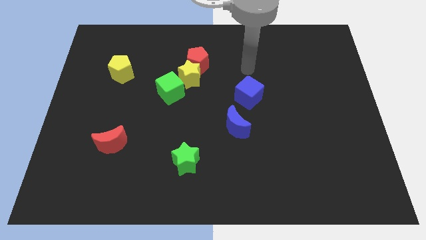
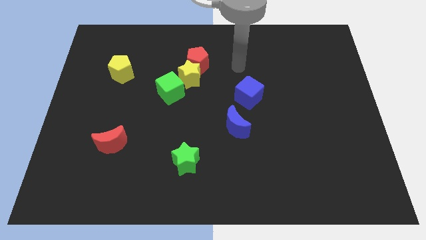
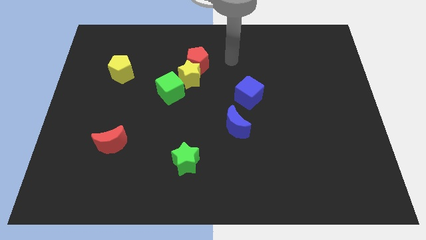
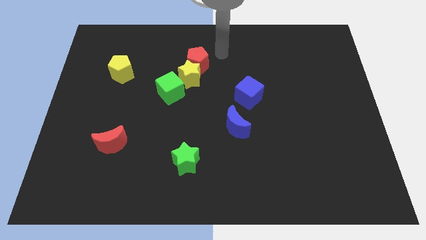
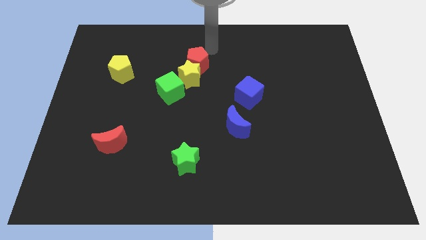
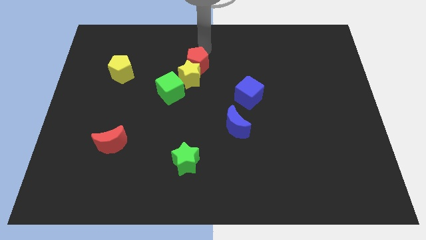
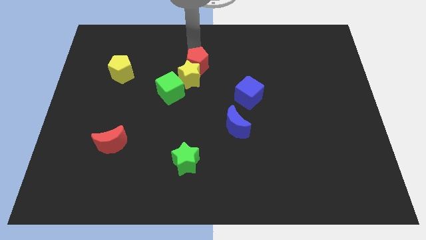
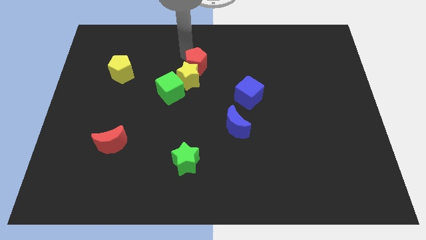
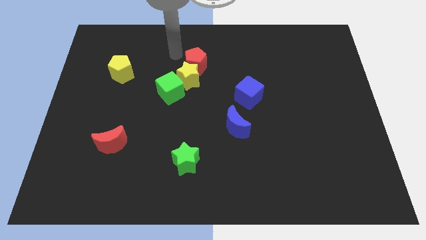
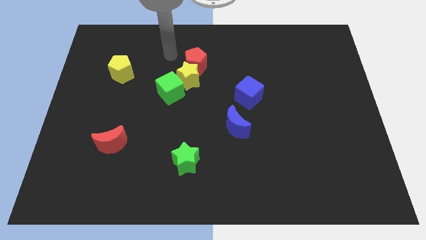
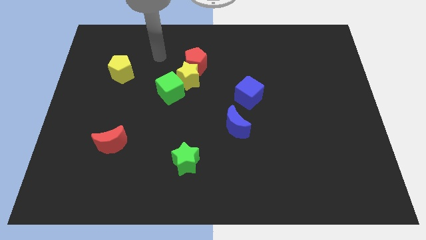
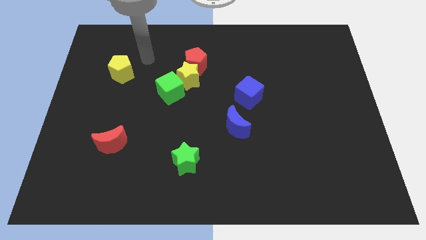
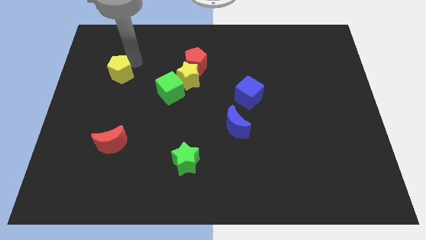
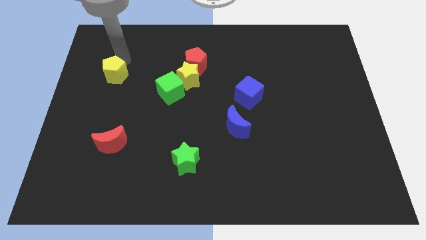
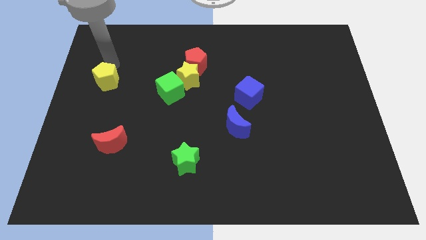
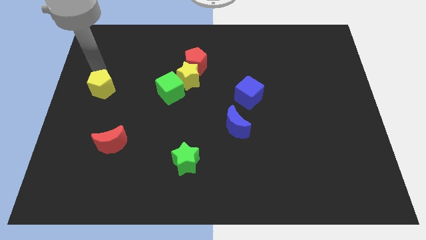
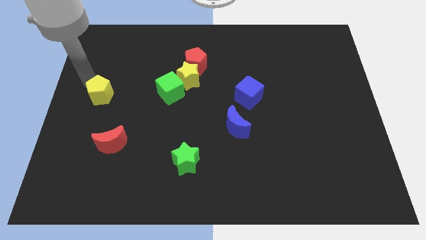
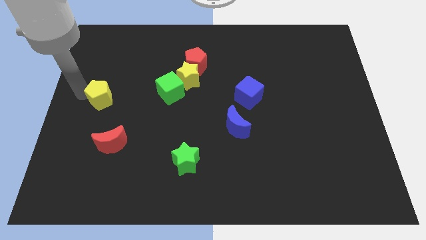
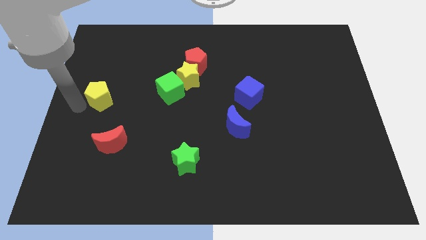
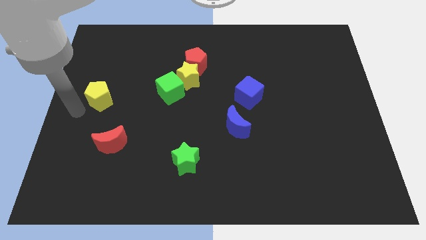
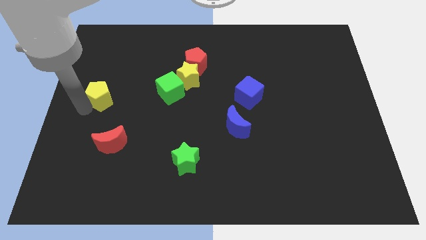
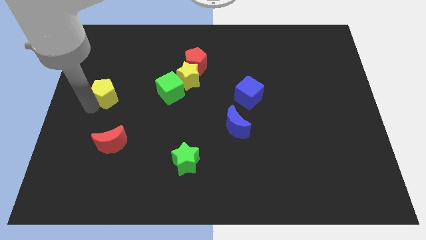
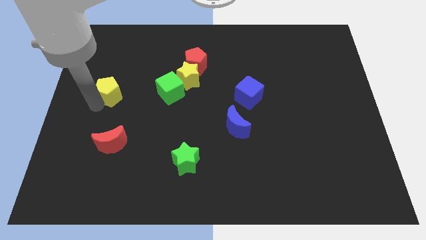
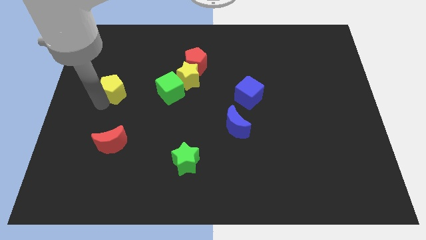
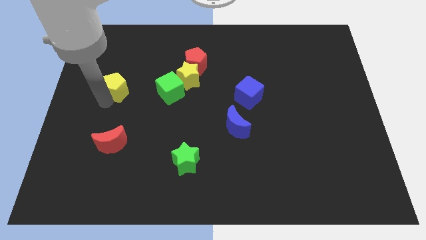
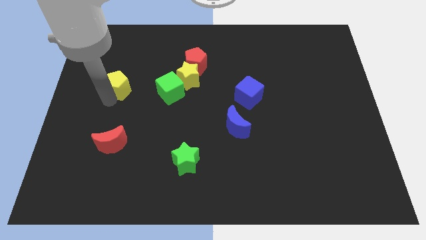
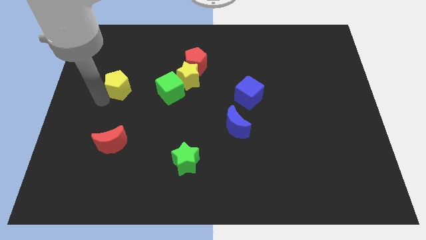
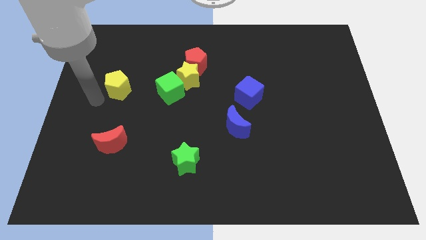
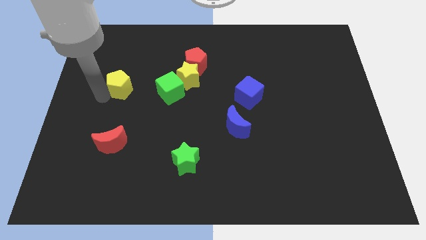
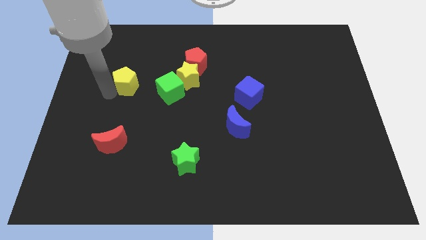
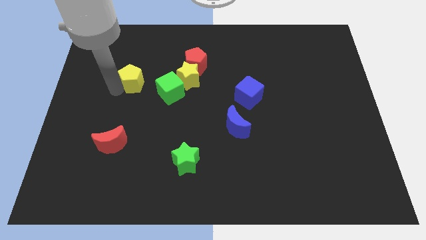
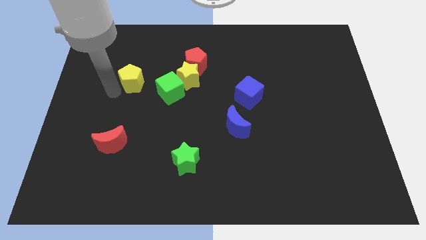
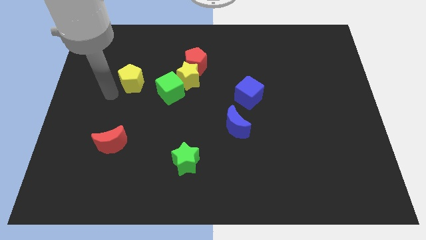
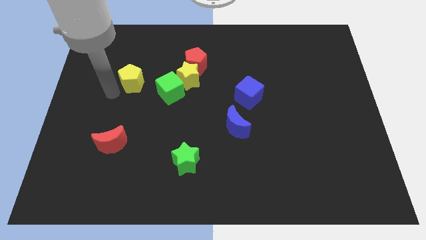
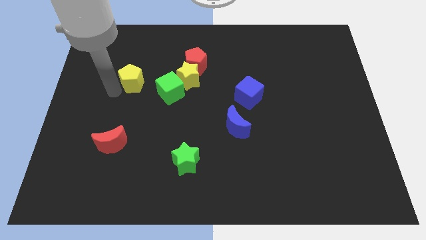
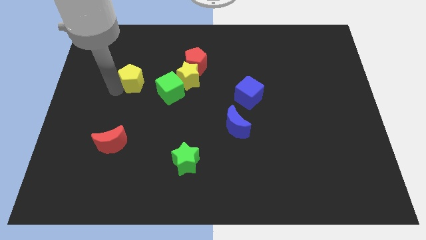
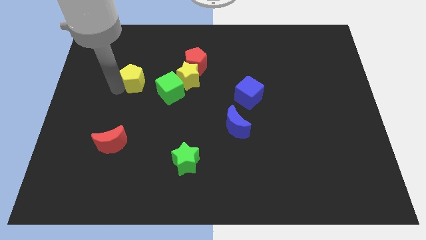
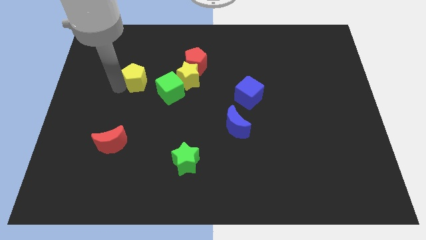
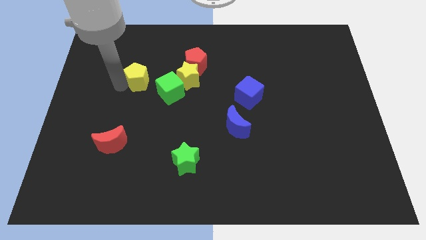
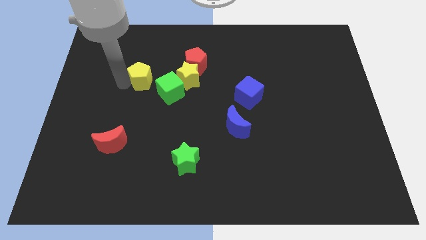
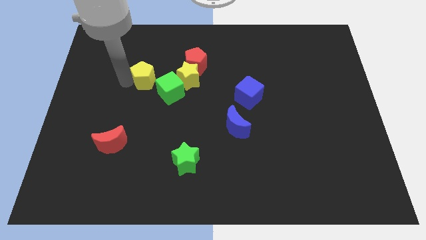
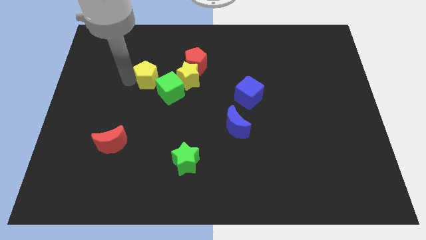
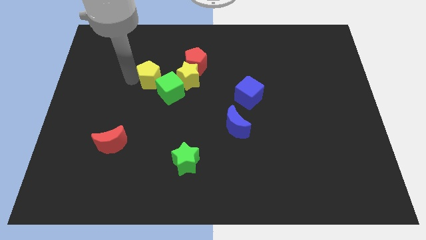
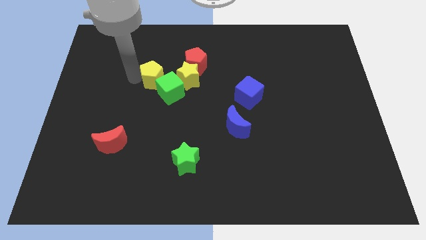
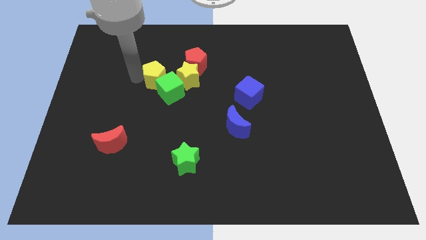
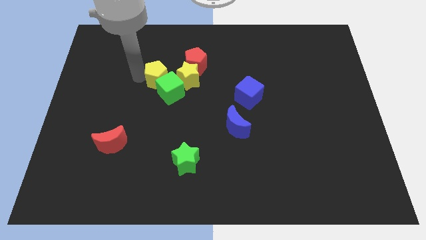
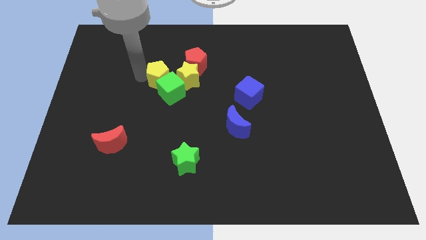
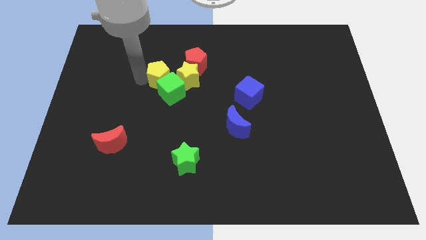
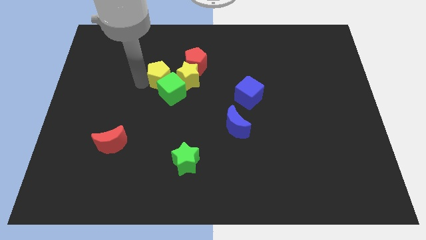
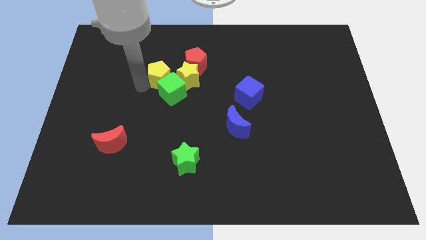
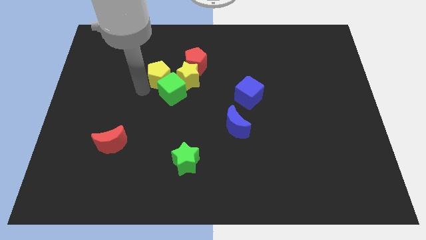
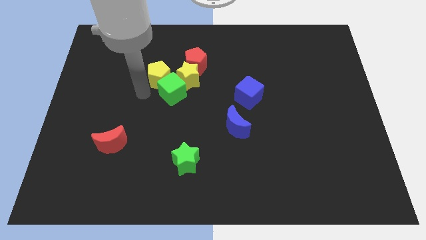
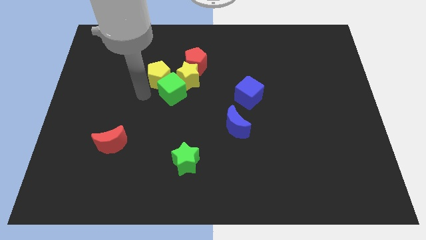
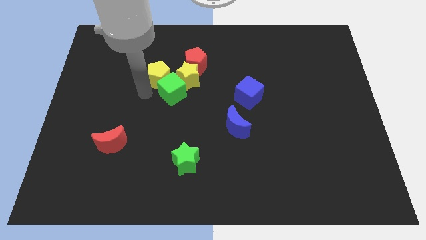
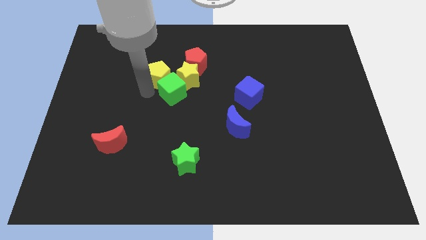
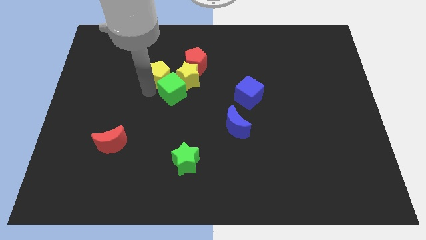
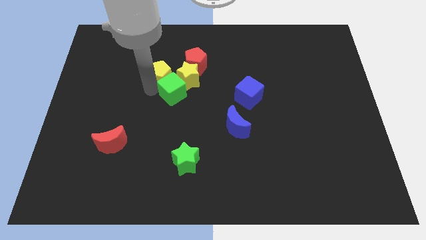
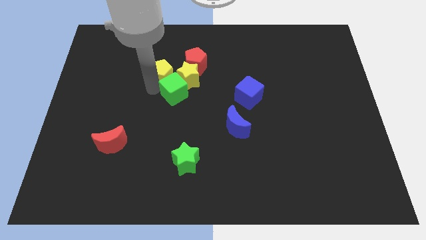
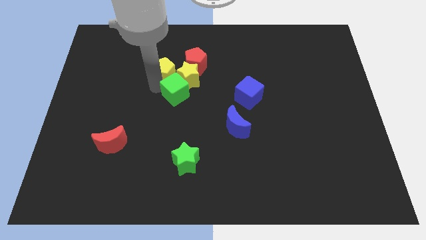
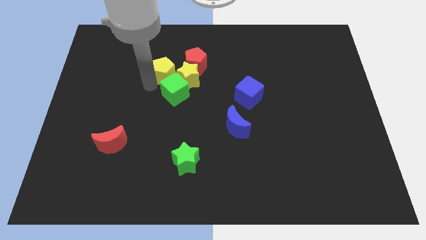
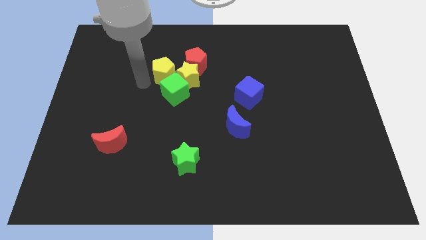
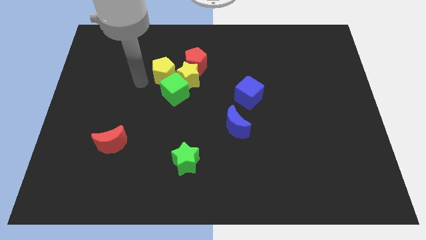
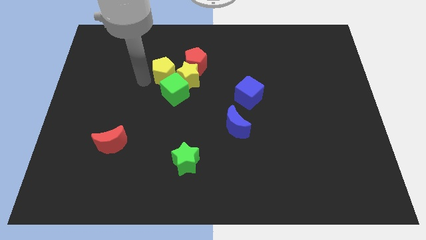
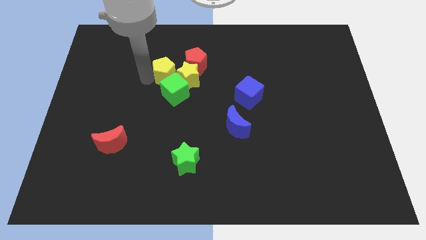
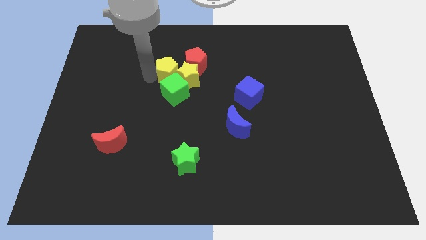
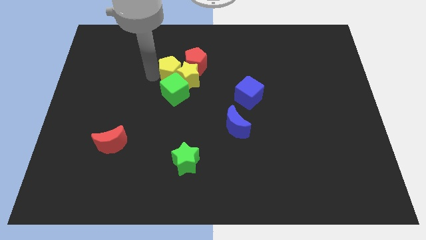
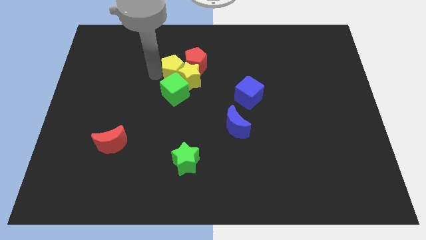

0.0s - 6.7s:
put the yellow pentagon towards the red pentagon
